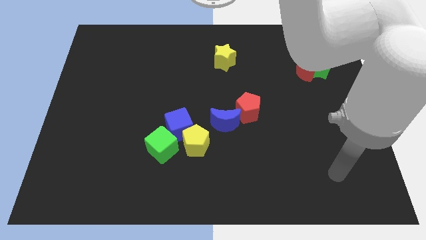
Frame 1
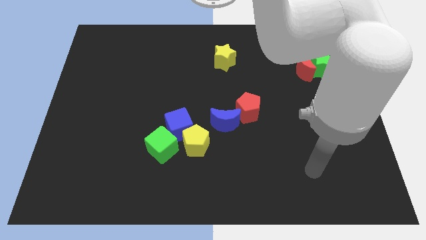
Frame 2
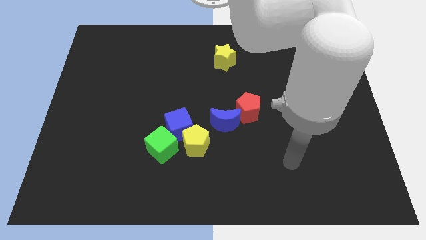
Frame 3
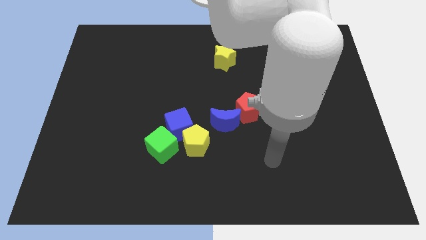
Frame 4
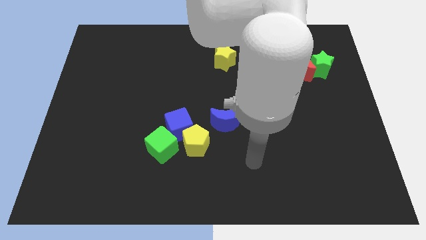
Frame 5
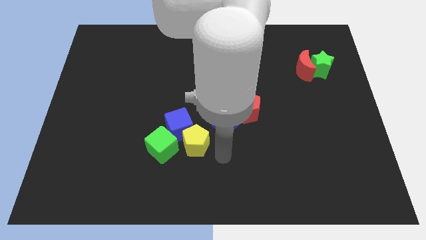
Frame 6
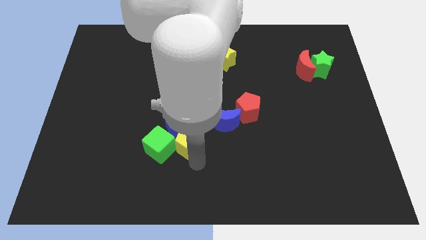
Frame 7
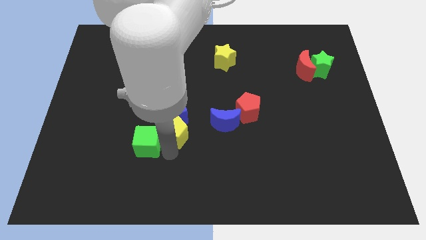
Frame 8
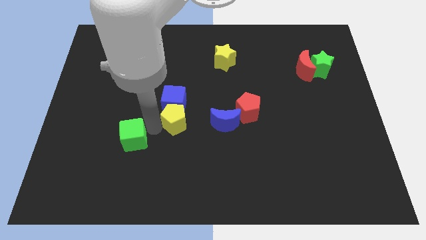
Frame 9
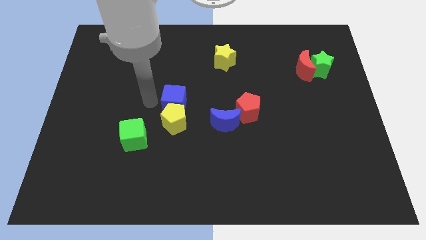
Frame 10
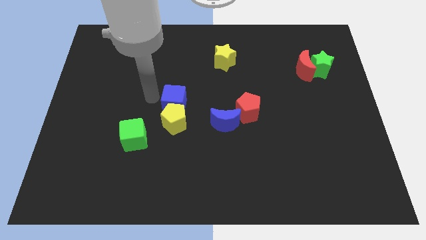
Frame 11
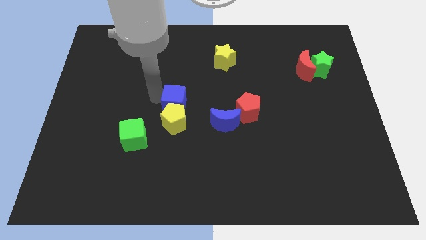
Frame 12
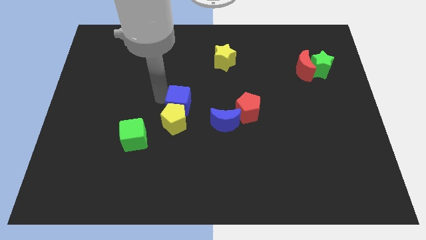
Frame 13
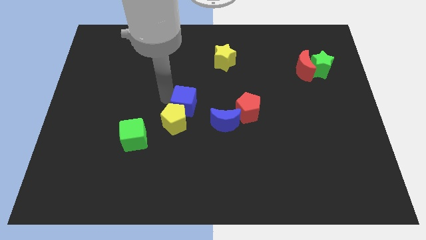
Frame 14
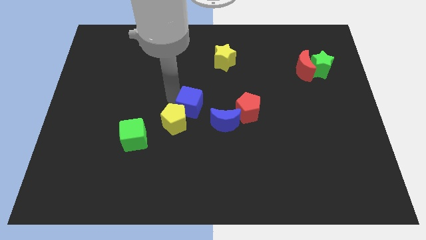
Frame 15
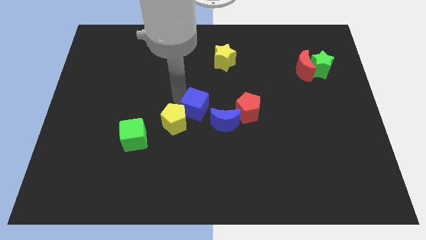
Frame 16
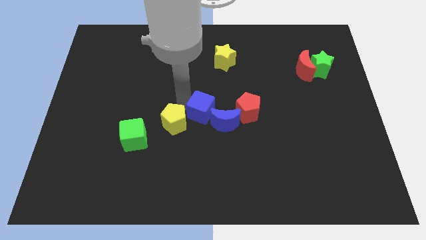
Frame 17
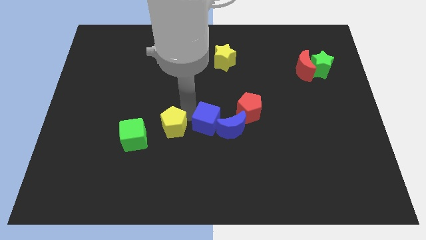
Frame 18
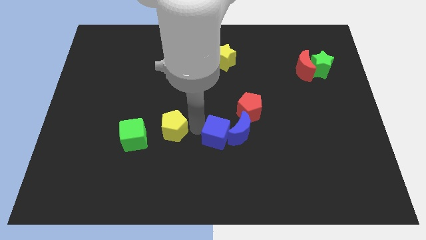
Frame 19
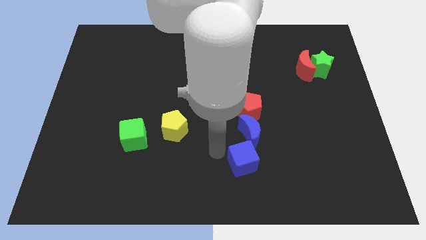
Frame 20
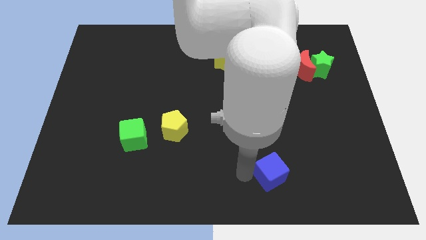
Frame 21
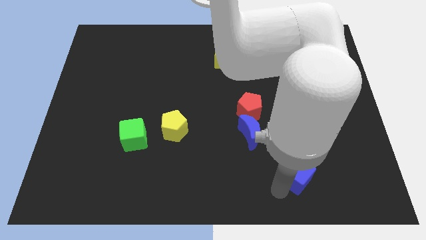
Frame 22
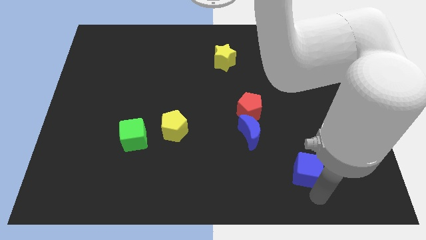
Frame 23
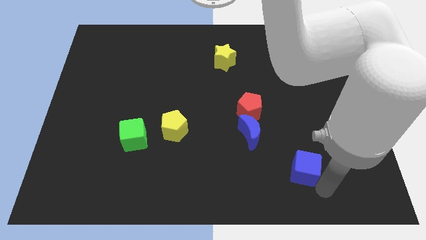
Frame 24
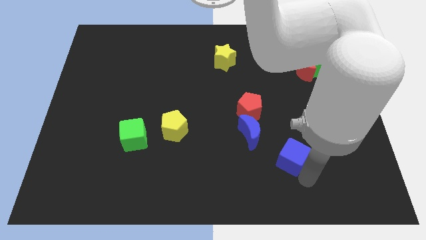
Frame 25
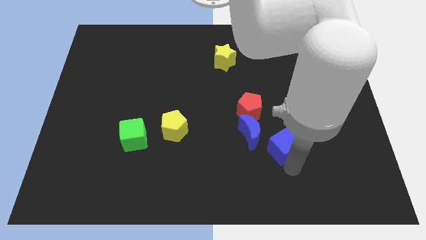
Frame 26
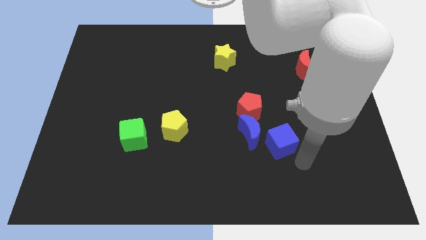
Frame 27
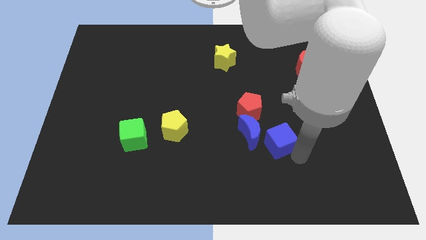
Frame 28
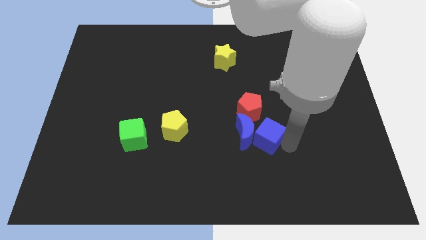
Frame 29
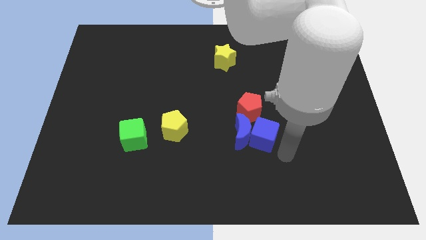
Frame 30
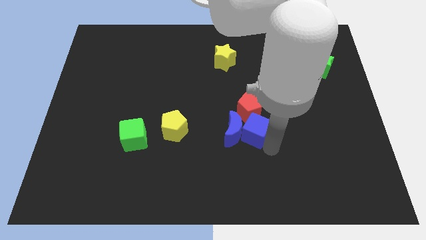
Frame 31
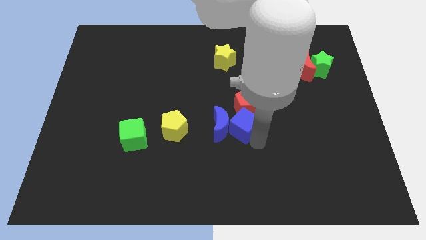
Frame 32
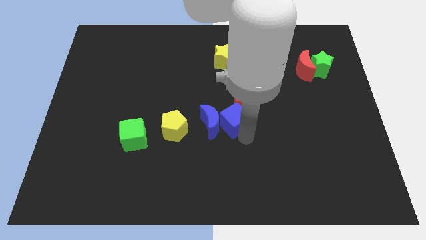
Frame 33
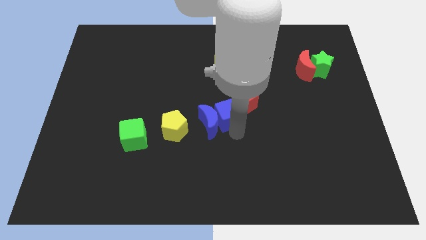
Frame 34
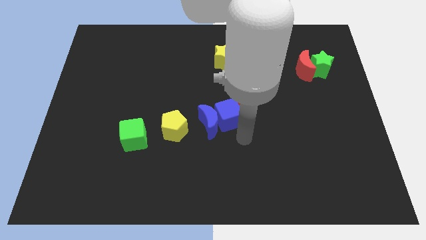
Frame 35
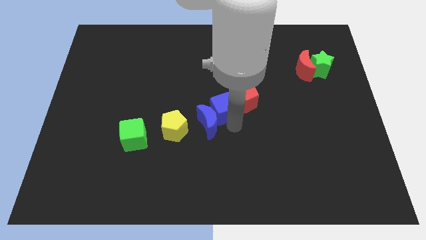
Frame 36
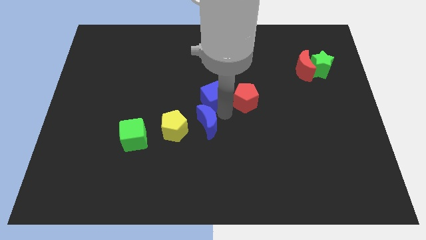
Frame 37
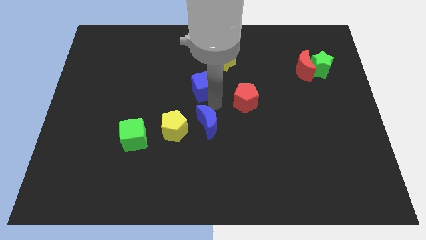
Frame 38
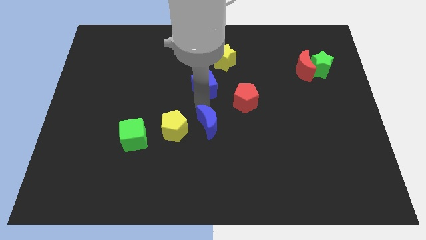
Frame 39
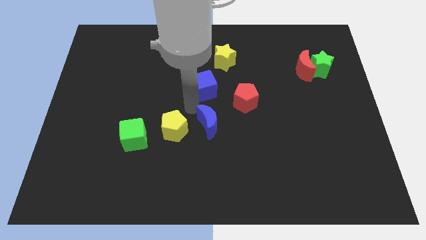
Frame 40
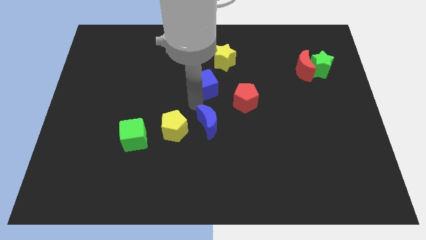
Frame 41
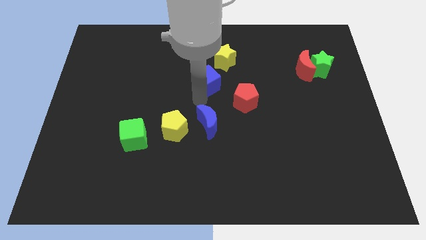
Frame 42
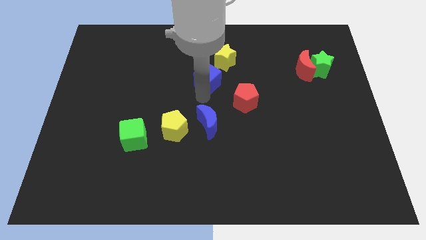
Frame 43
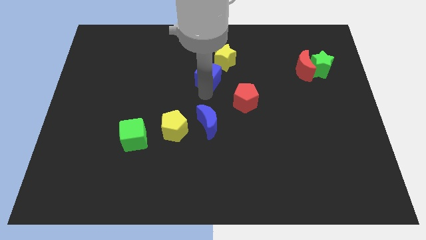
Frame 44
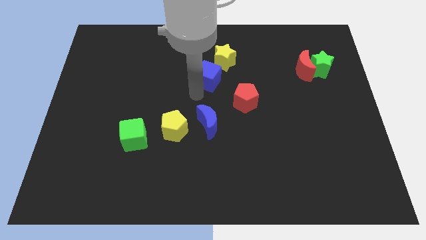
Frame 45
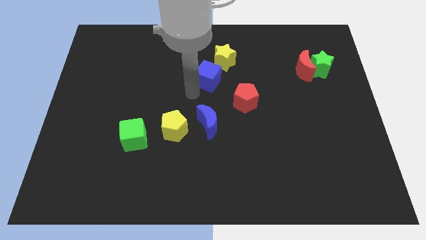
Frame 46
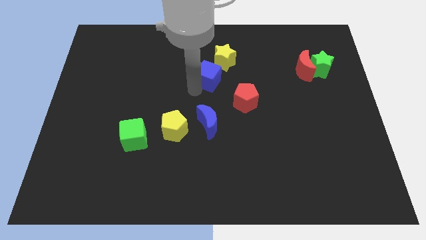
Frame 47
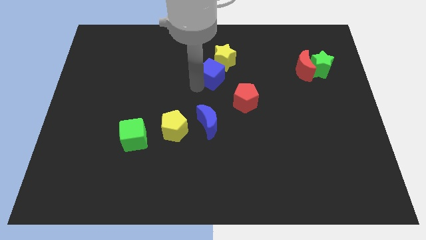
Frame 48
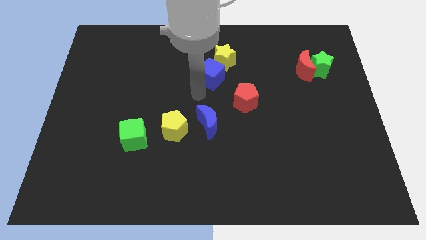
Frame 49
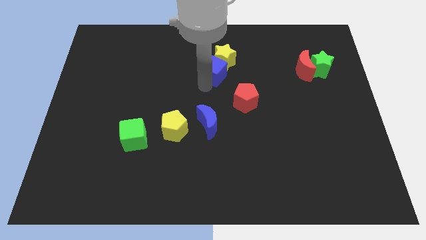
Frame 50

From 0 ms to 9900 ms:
push the blue cube to the yellow star

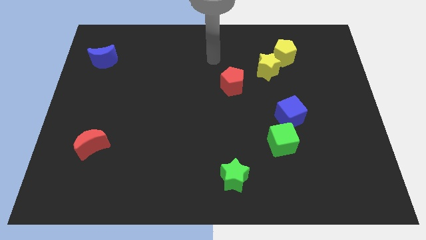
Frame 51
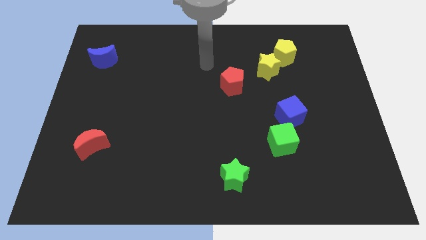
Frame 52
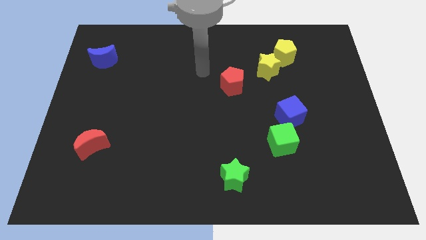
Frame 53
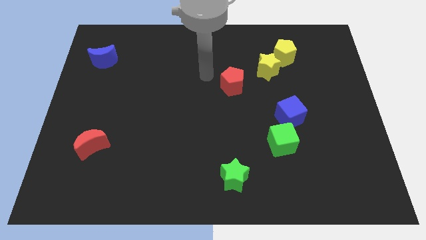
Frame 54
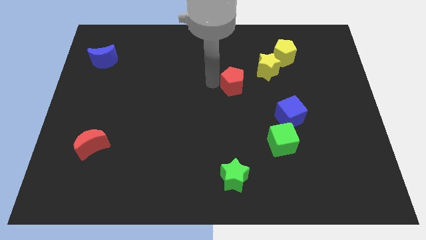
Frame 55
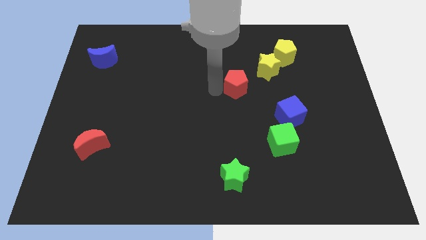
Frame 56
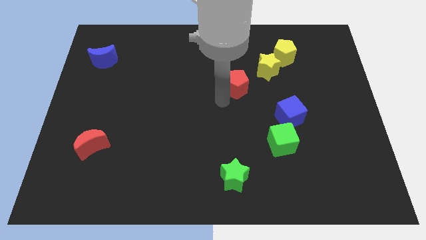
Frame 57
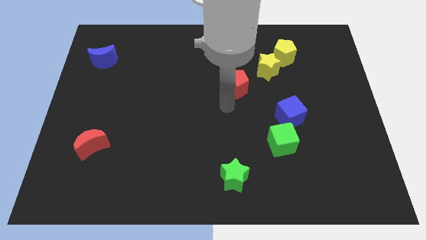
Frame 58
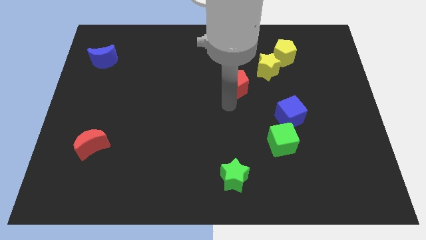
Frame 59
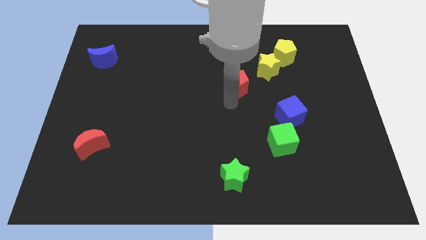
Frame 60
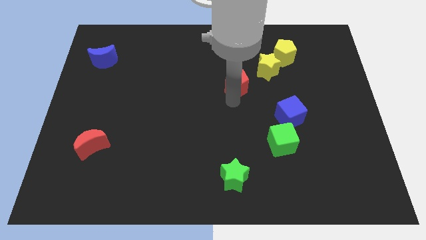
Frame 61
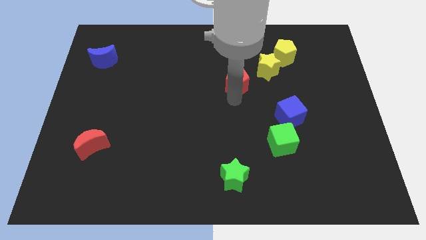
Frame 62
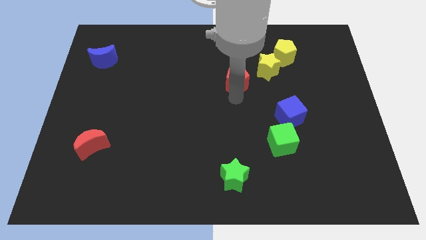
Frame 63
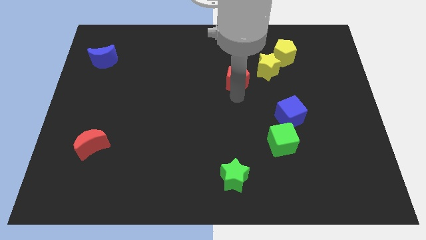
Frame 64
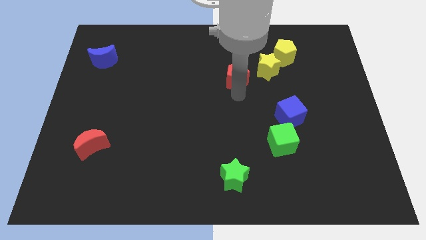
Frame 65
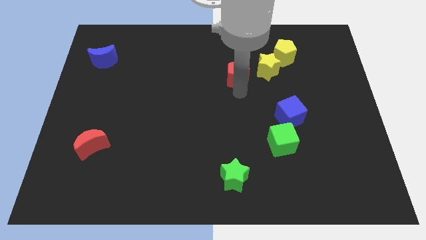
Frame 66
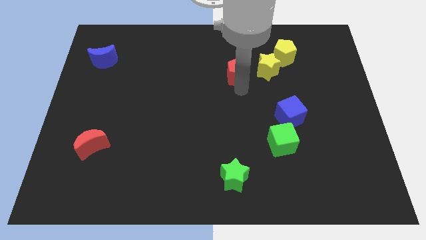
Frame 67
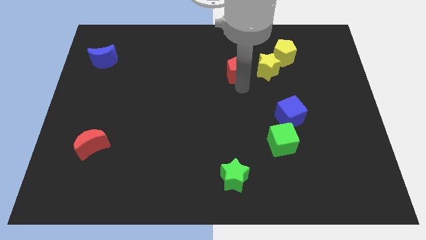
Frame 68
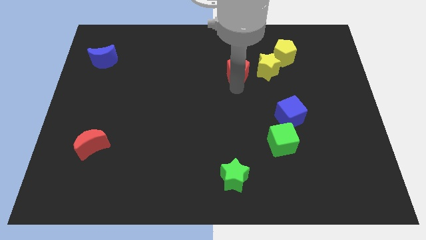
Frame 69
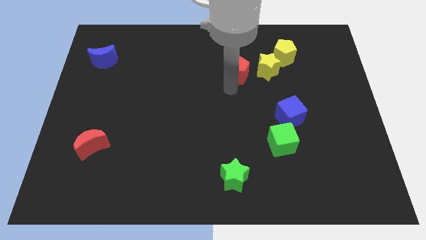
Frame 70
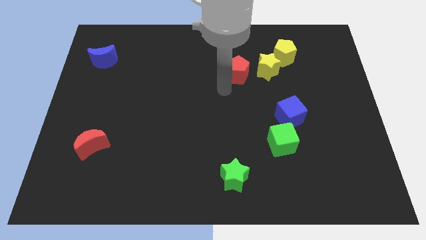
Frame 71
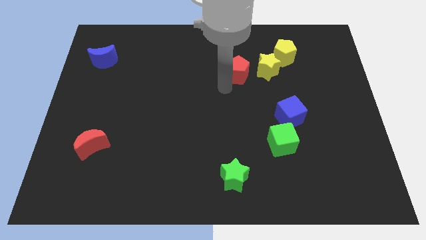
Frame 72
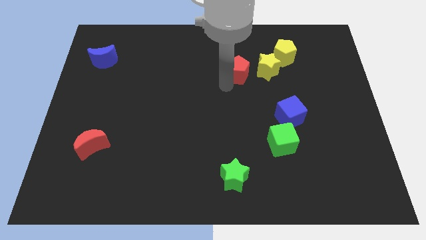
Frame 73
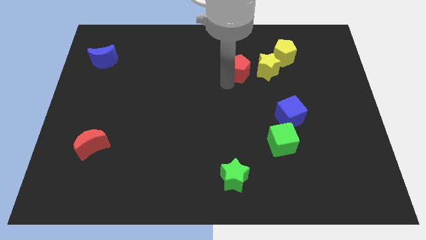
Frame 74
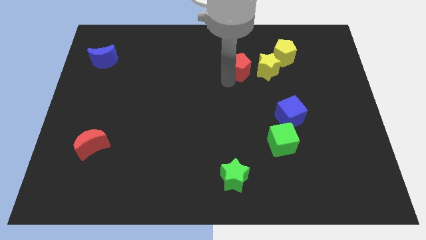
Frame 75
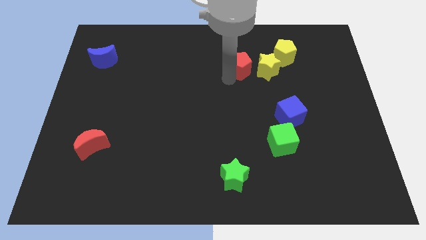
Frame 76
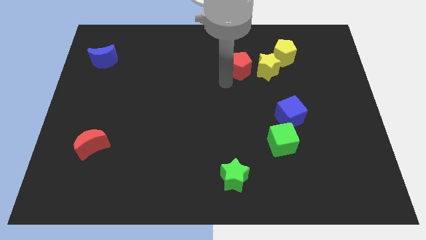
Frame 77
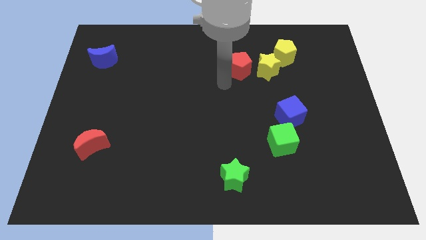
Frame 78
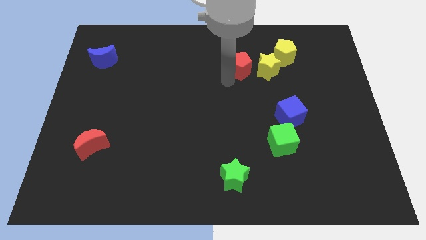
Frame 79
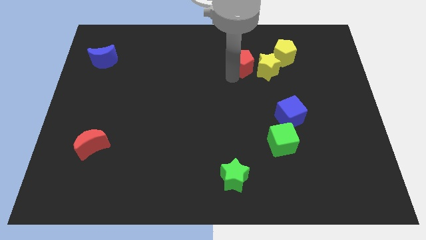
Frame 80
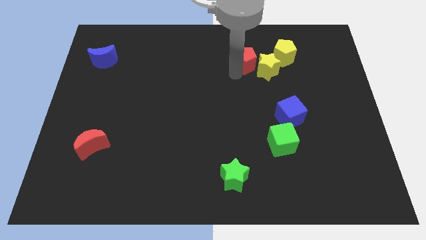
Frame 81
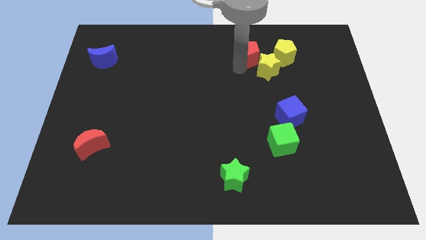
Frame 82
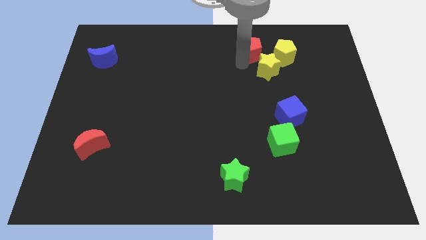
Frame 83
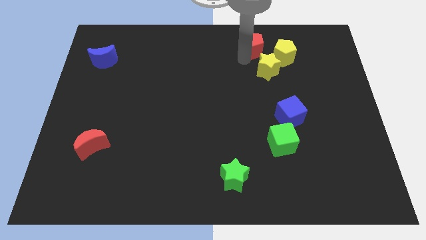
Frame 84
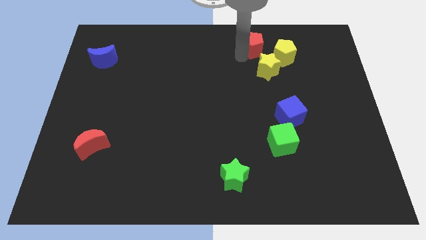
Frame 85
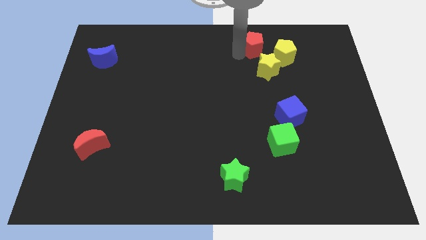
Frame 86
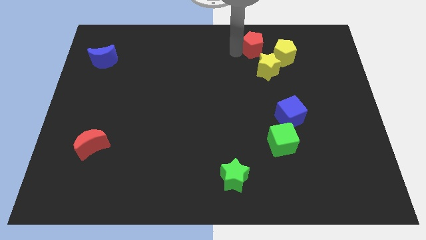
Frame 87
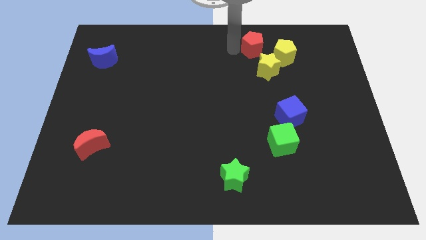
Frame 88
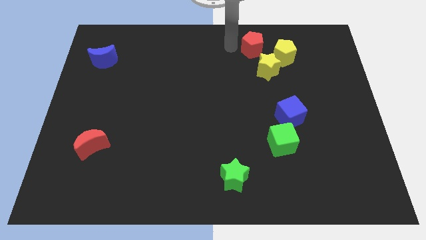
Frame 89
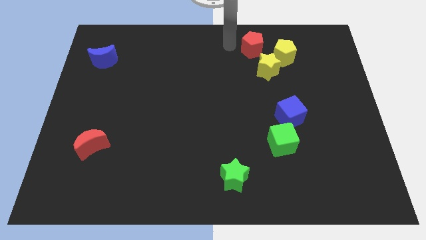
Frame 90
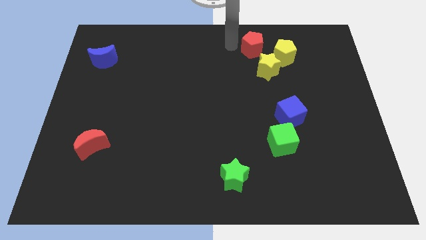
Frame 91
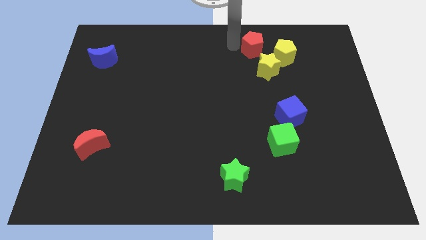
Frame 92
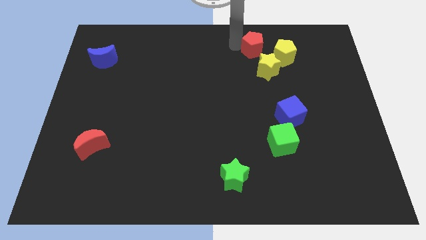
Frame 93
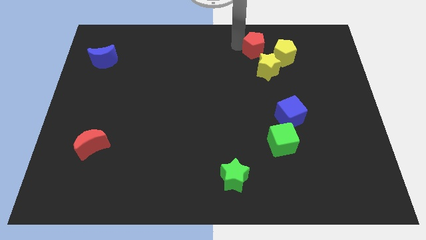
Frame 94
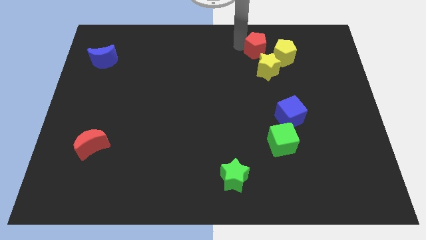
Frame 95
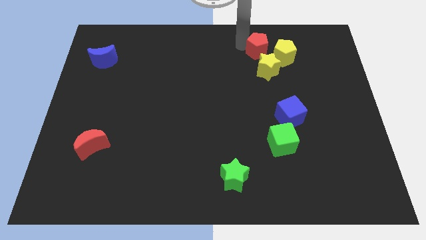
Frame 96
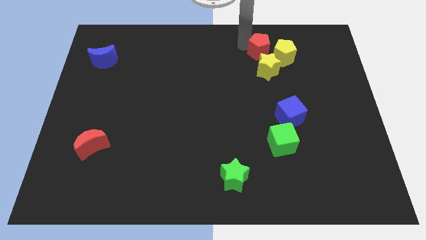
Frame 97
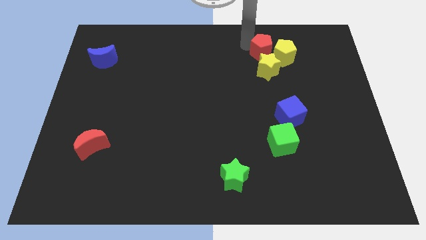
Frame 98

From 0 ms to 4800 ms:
put the red pentagon close to the yellow pentagon
